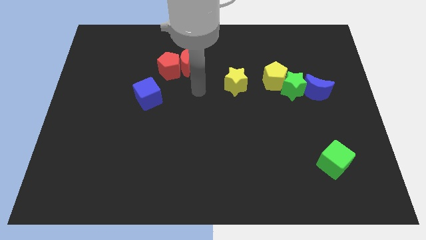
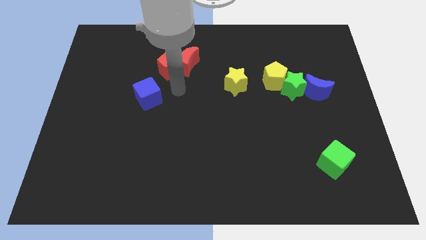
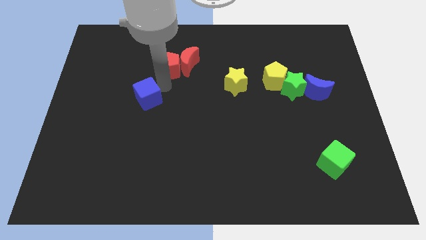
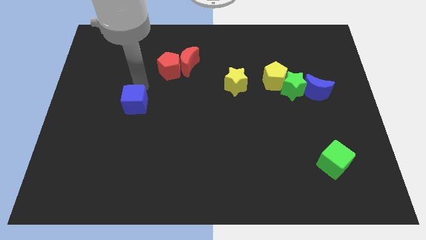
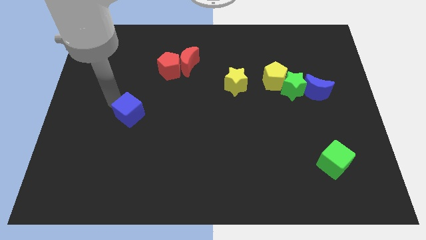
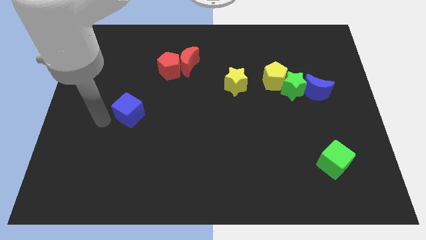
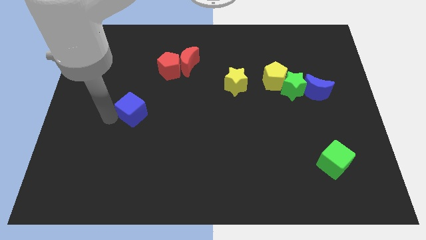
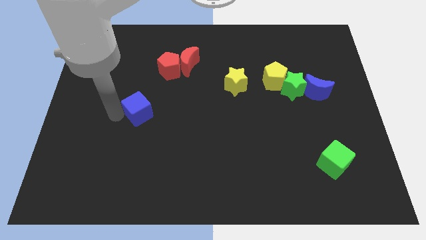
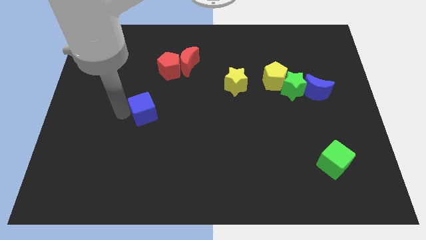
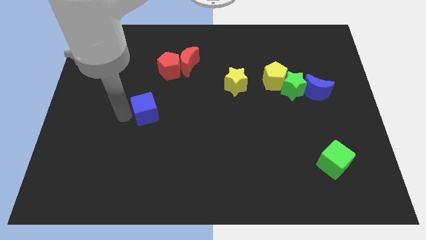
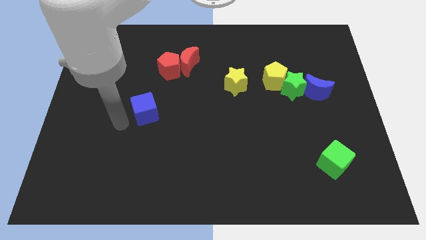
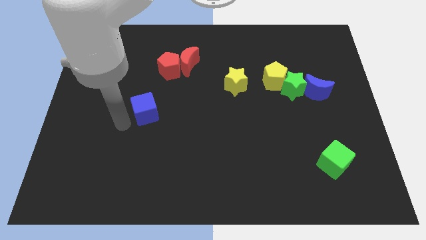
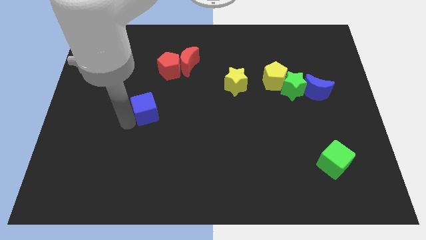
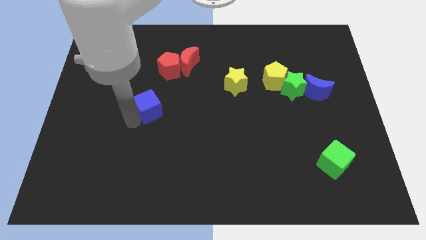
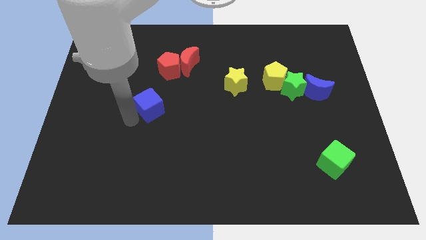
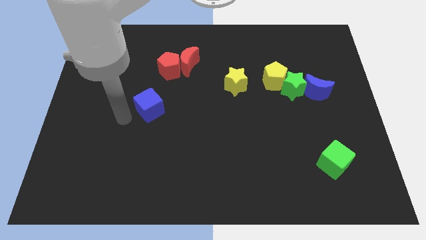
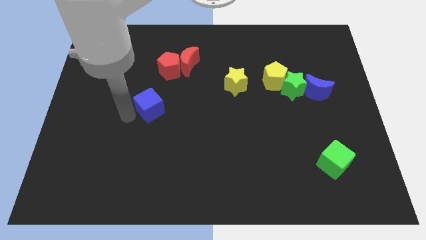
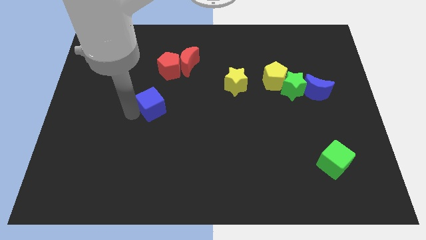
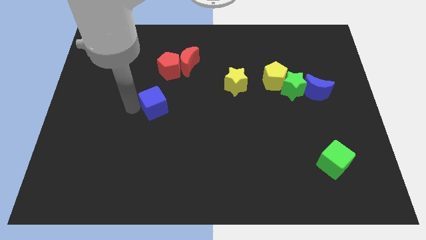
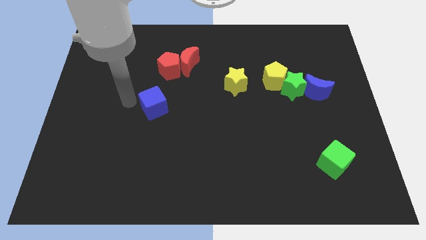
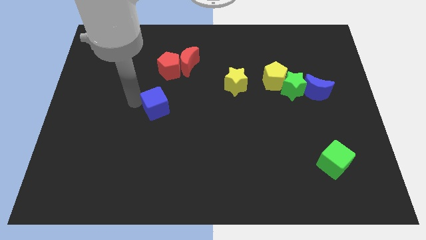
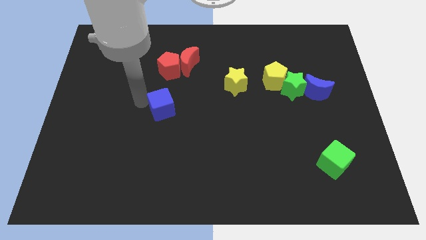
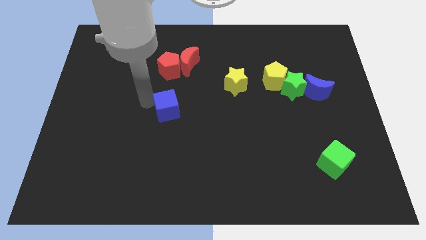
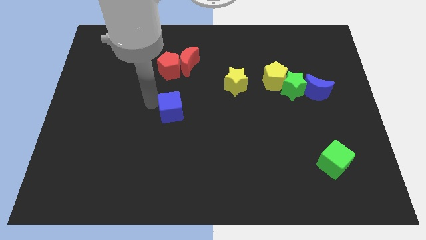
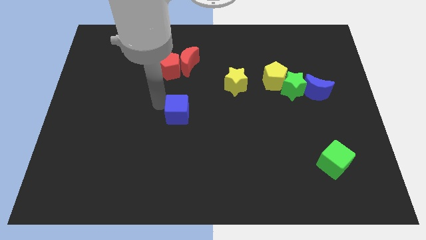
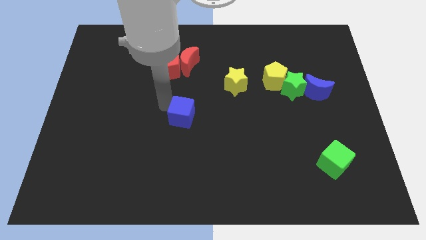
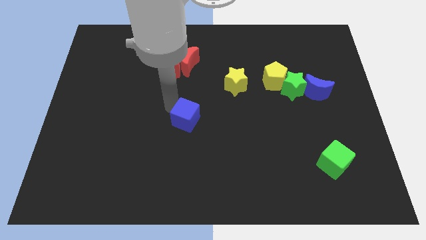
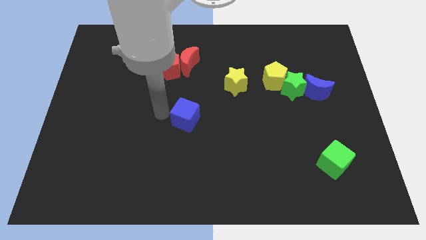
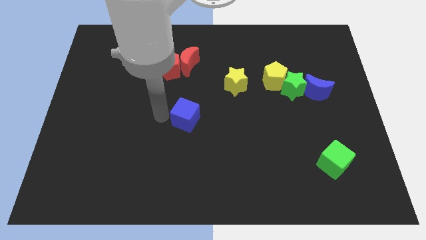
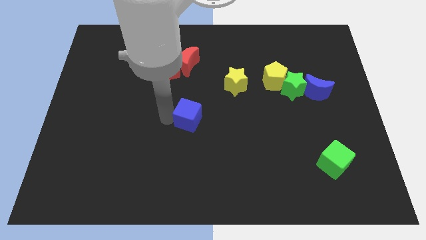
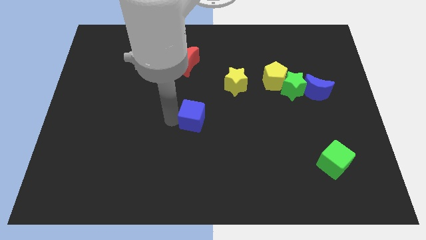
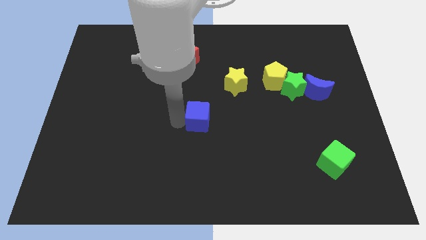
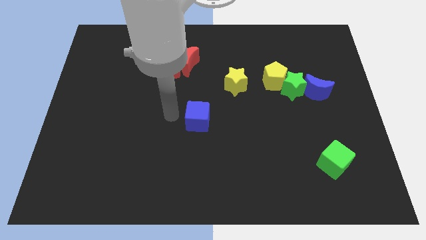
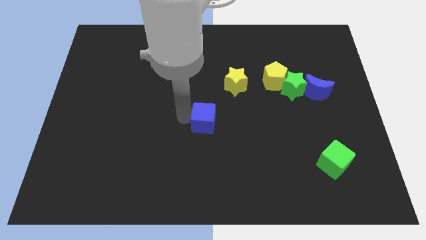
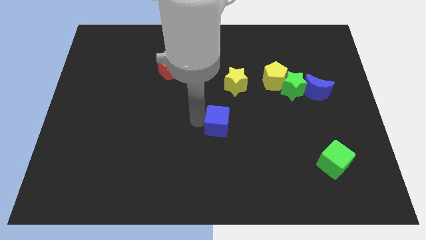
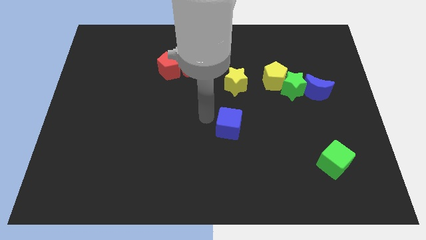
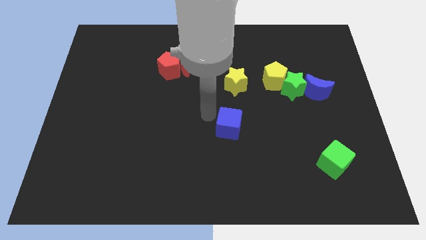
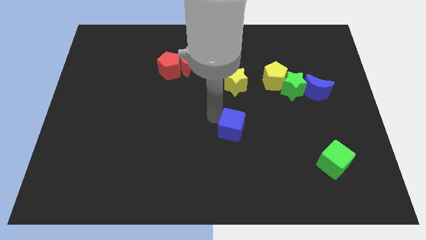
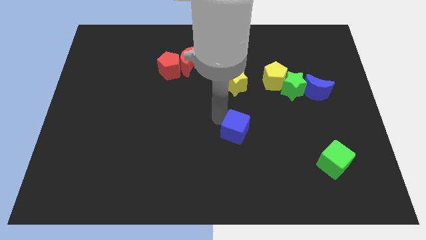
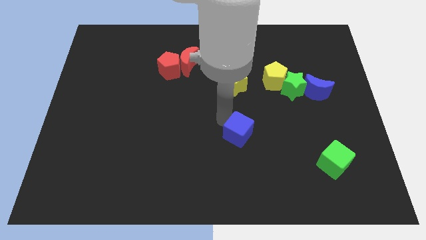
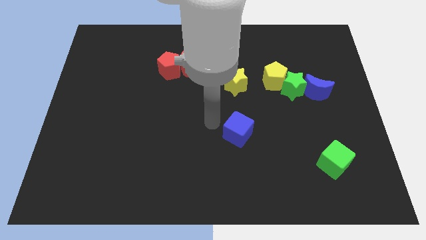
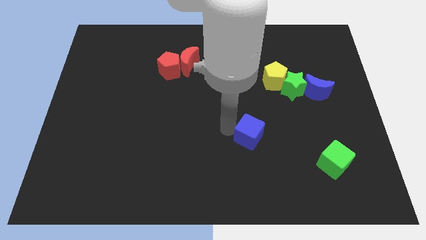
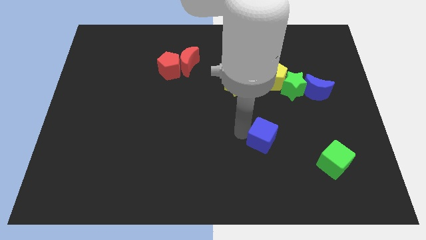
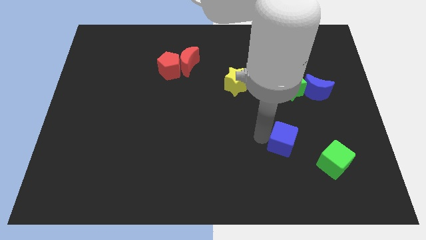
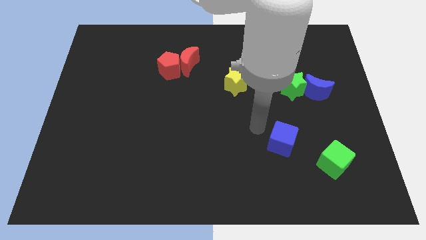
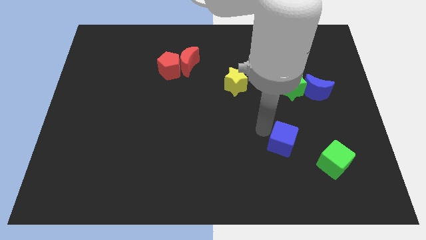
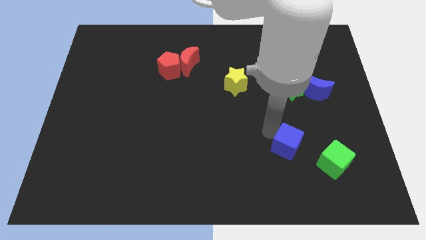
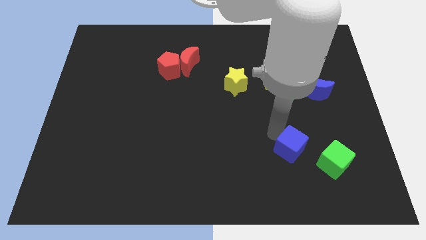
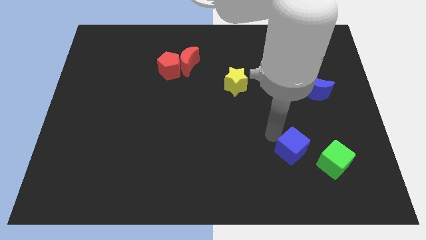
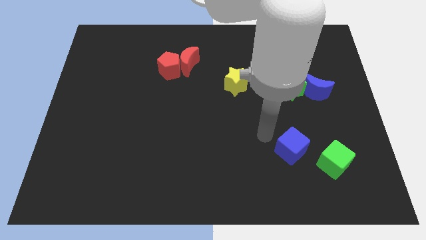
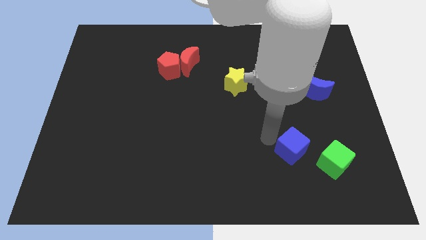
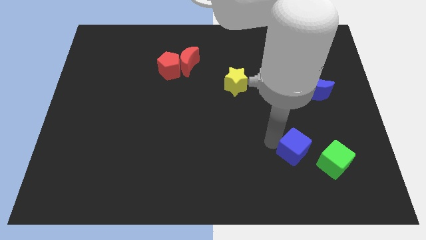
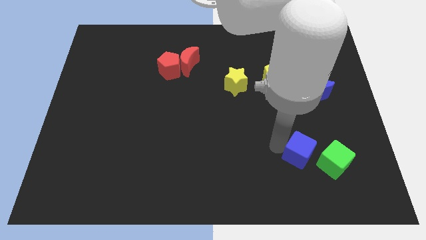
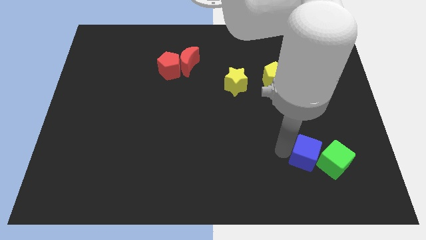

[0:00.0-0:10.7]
push the blue cube next to the green cube

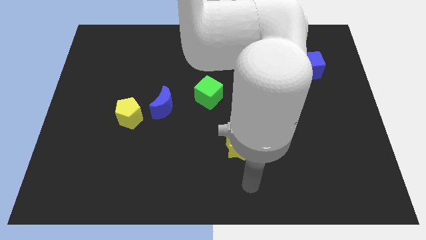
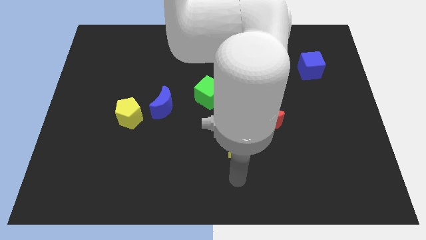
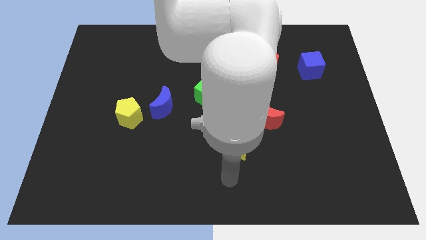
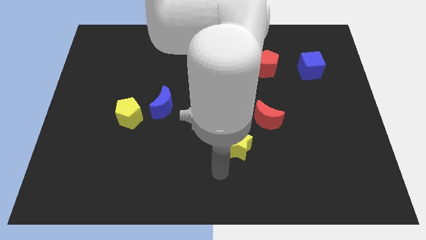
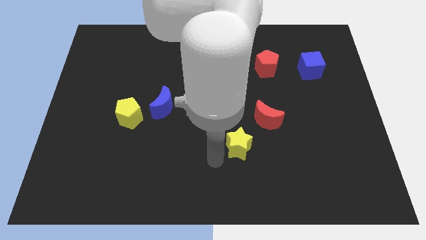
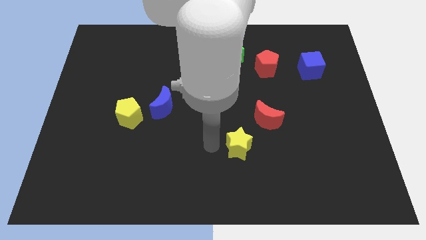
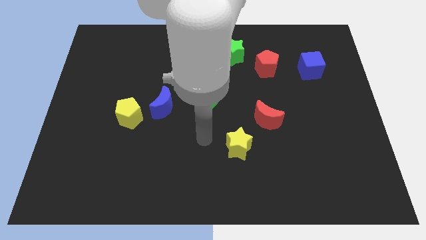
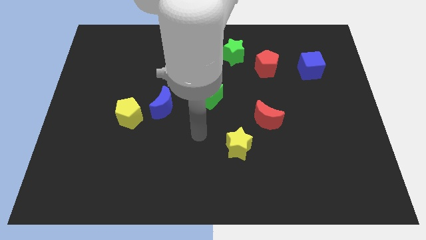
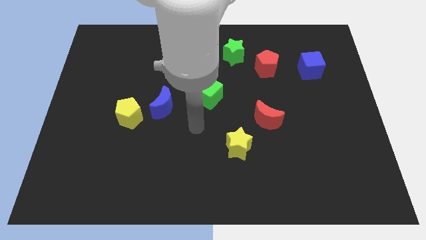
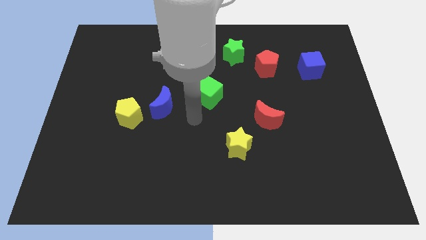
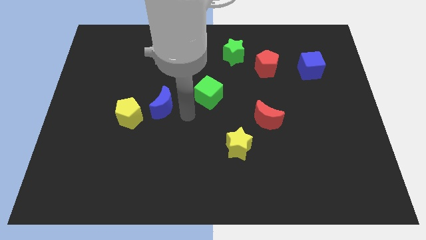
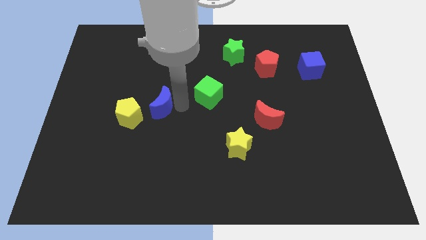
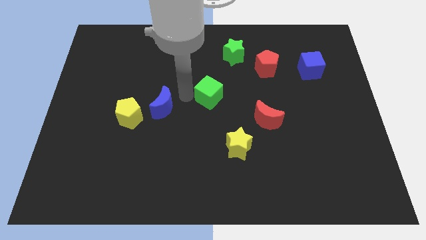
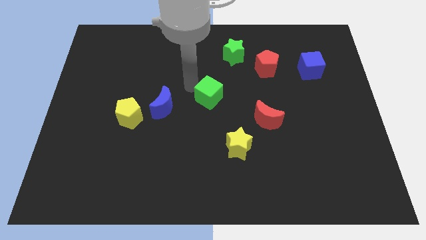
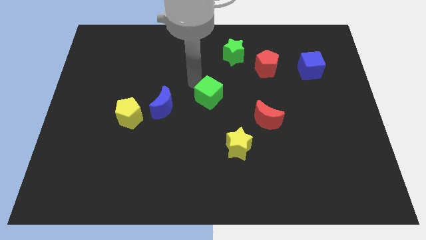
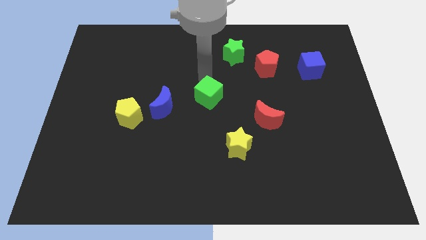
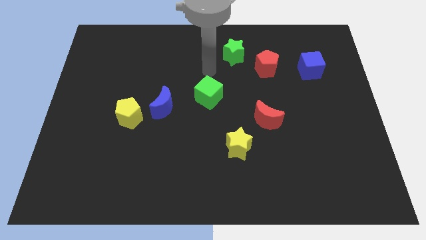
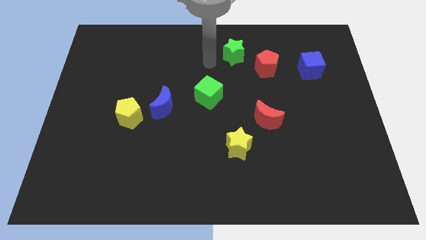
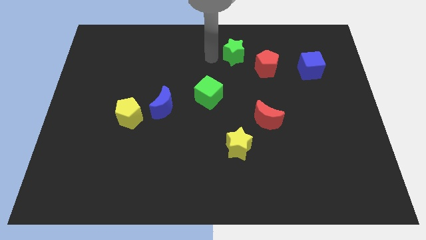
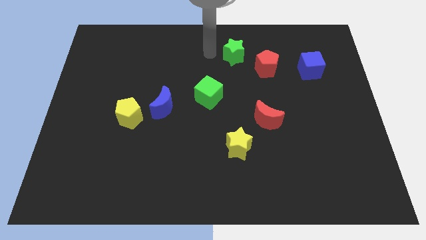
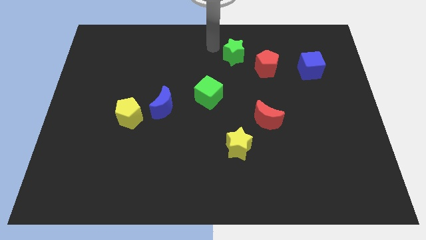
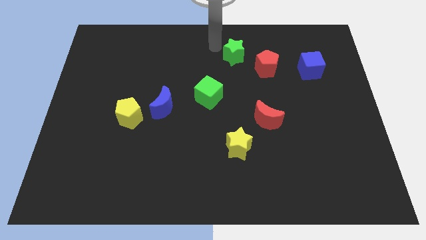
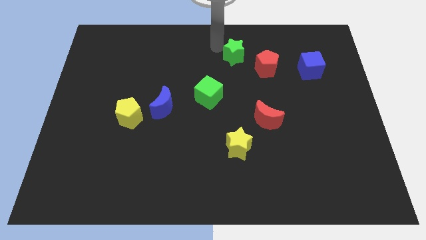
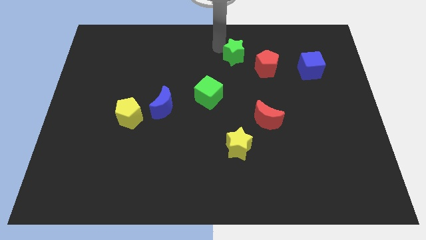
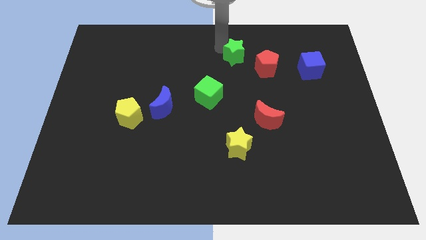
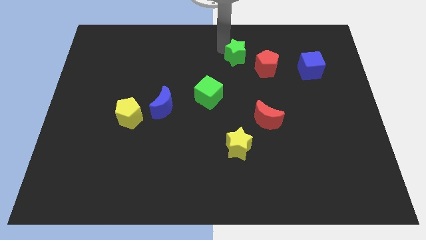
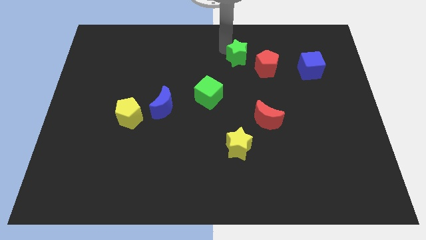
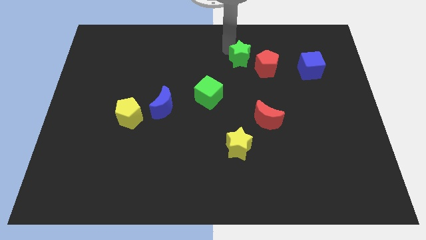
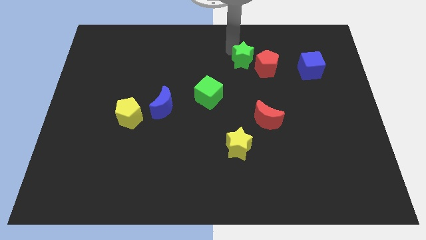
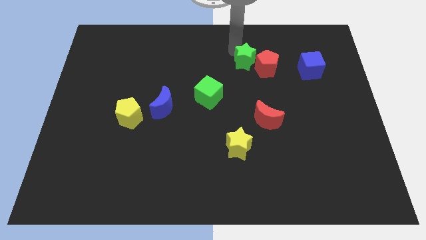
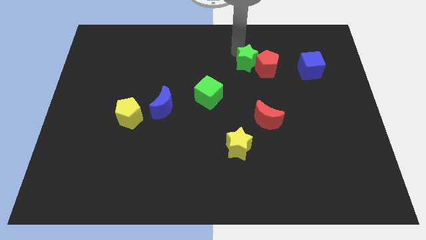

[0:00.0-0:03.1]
move the green star towards the red pentagon
